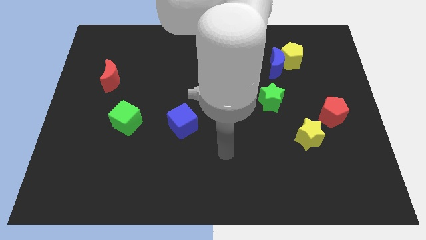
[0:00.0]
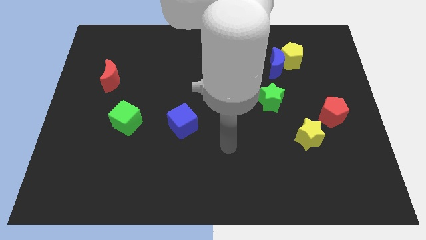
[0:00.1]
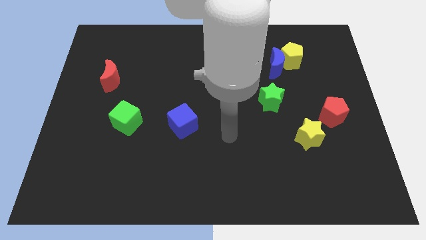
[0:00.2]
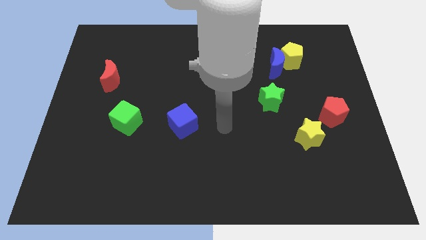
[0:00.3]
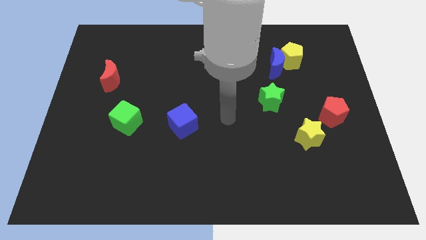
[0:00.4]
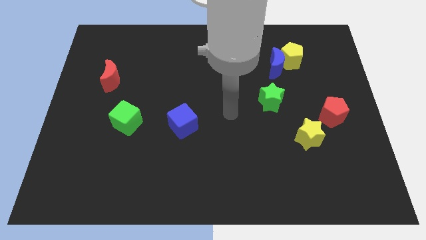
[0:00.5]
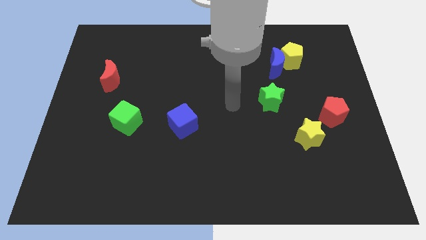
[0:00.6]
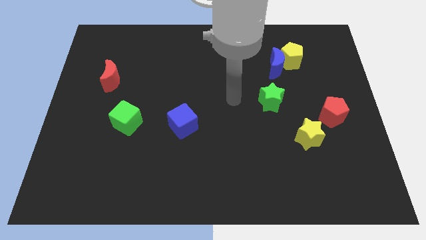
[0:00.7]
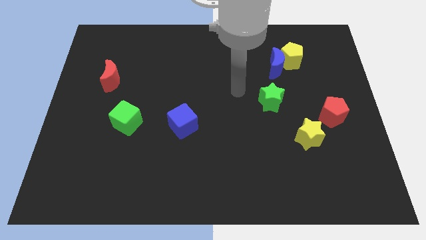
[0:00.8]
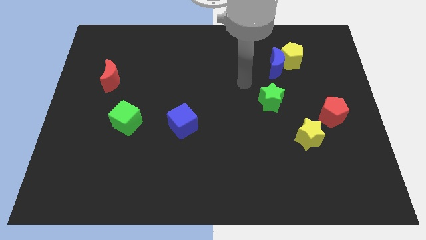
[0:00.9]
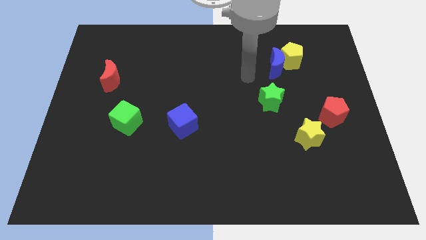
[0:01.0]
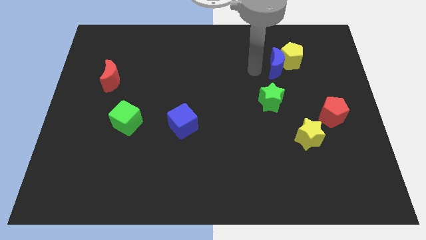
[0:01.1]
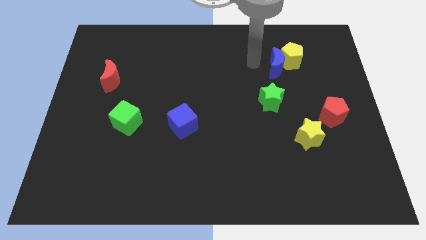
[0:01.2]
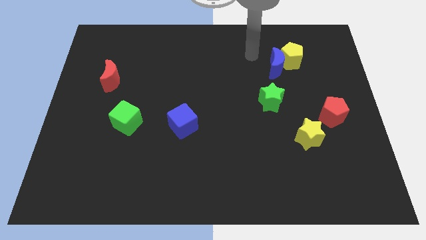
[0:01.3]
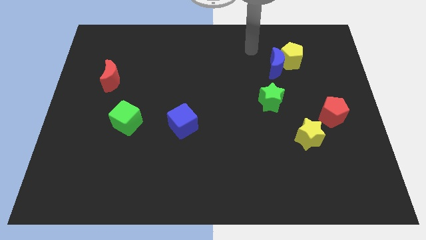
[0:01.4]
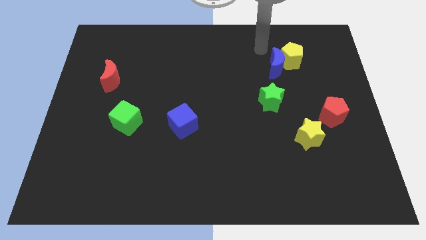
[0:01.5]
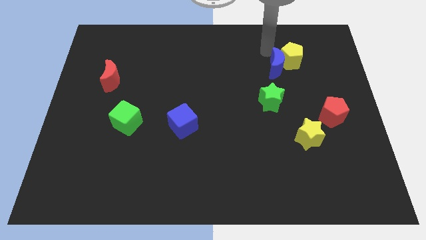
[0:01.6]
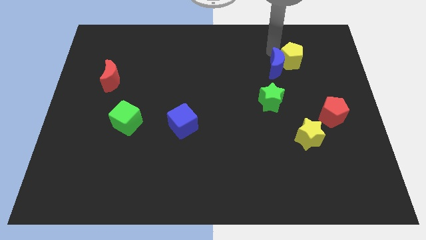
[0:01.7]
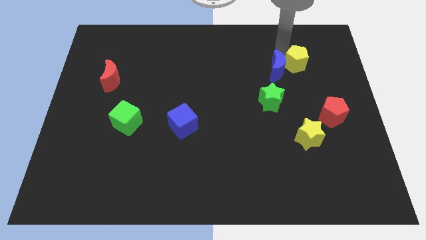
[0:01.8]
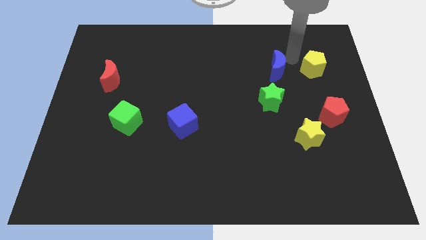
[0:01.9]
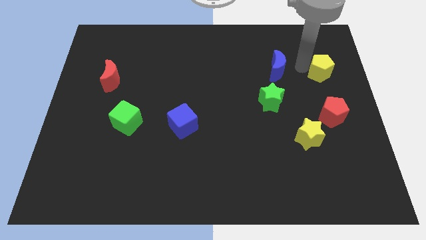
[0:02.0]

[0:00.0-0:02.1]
pull the blue moon apart from the yellow pentagon

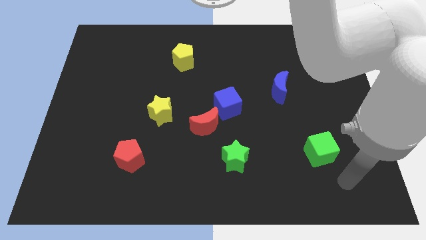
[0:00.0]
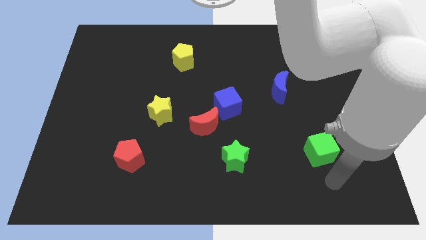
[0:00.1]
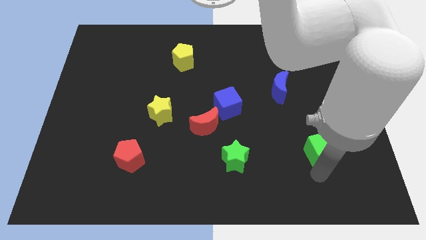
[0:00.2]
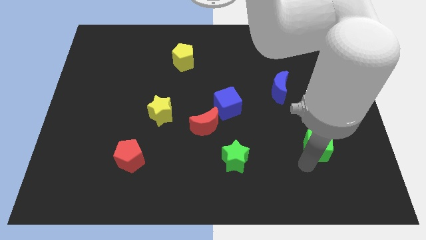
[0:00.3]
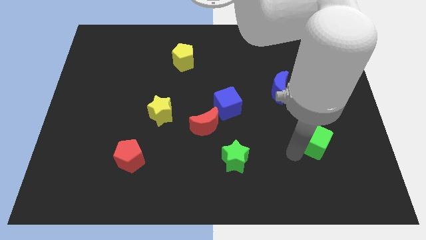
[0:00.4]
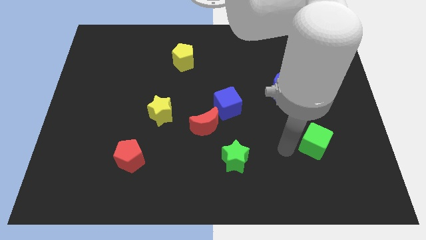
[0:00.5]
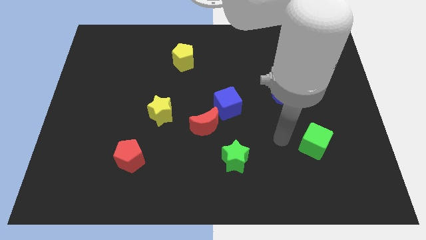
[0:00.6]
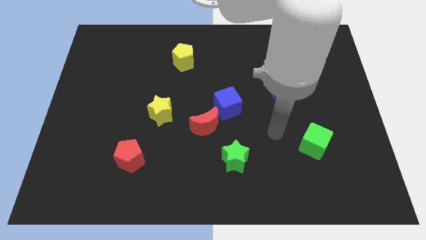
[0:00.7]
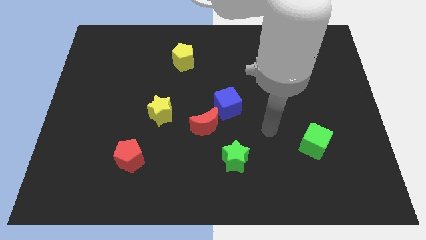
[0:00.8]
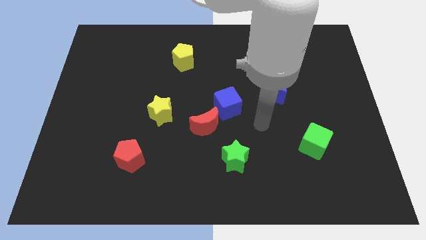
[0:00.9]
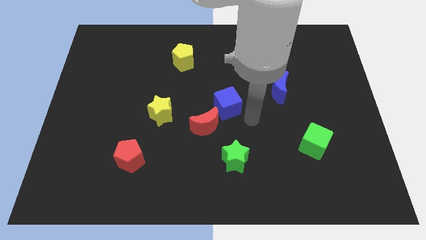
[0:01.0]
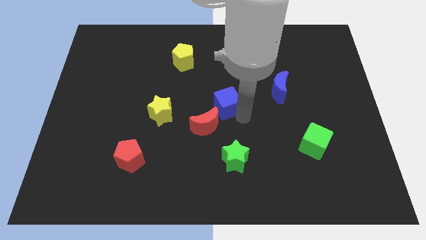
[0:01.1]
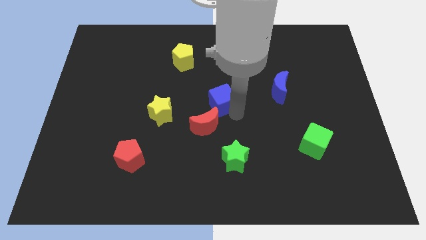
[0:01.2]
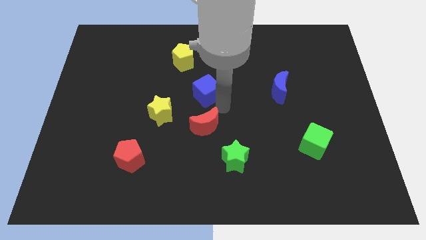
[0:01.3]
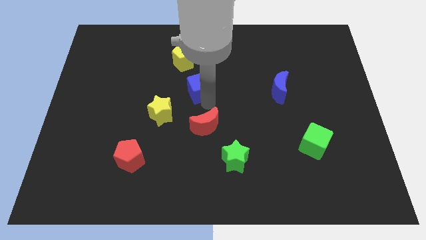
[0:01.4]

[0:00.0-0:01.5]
pull the red moon apart from the blue cube

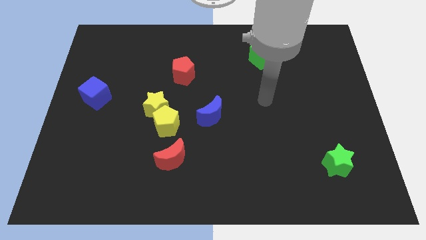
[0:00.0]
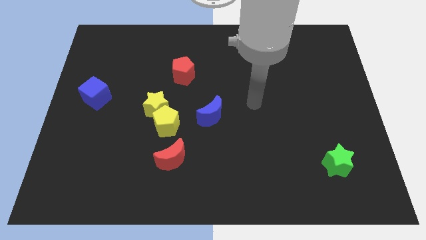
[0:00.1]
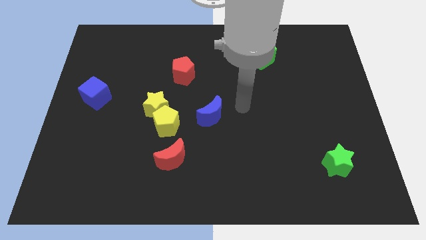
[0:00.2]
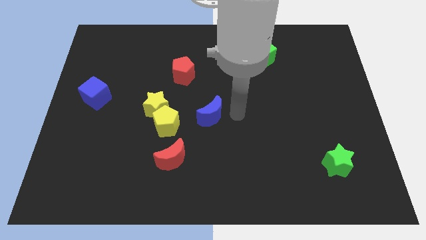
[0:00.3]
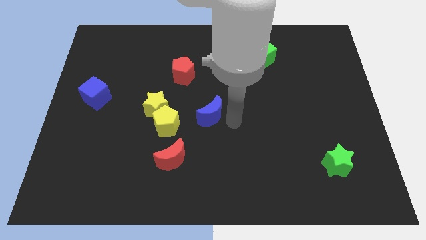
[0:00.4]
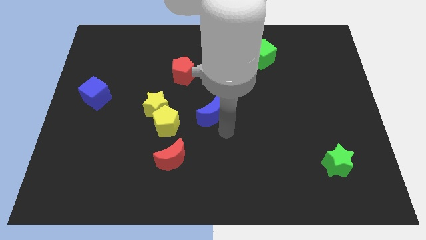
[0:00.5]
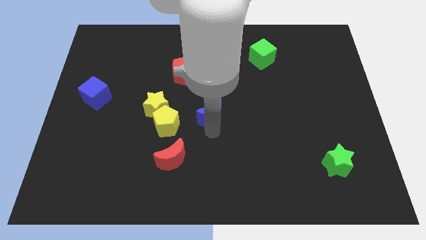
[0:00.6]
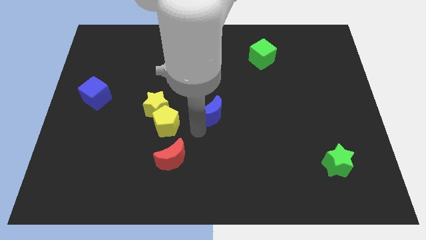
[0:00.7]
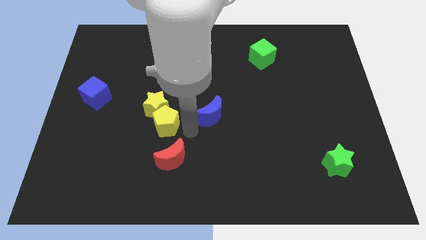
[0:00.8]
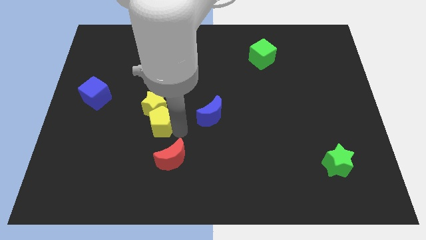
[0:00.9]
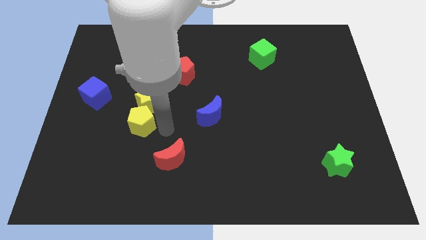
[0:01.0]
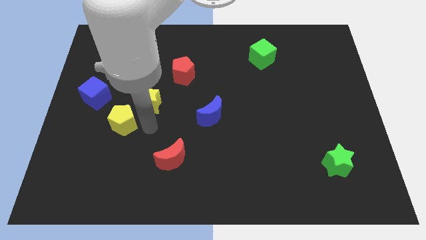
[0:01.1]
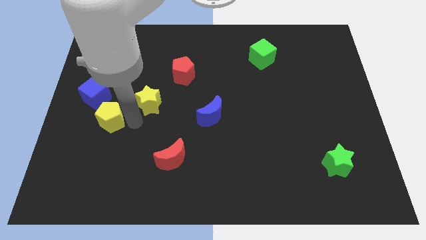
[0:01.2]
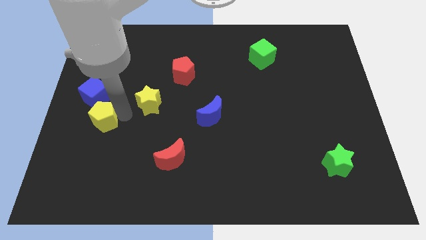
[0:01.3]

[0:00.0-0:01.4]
separate the yellow star from the yellow pentagon

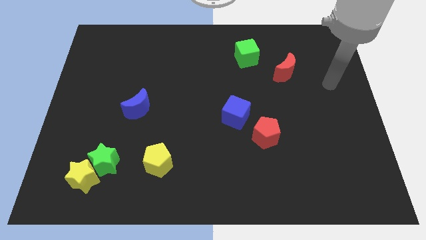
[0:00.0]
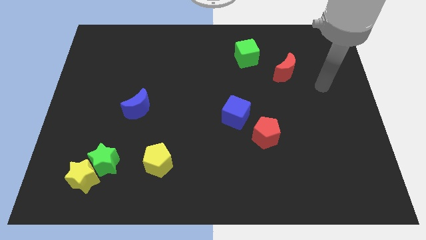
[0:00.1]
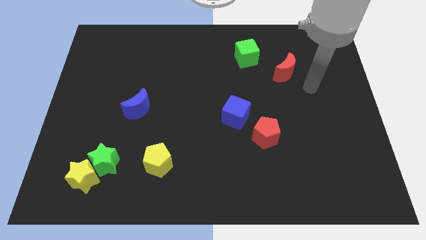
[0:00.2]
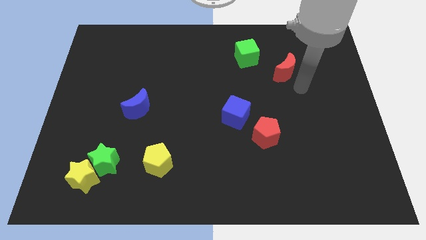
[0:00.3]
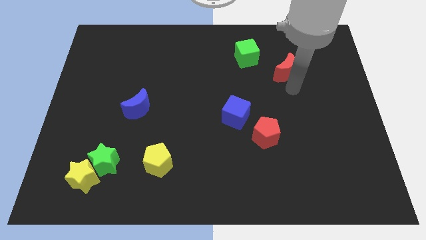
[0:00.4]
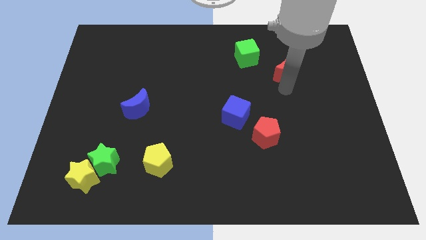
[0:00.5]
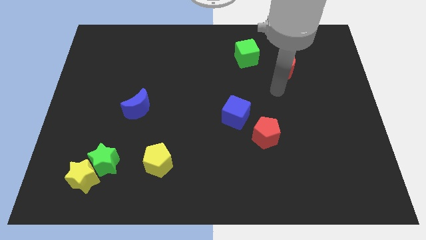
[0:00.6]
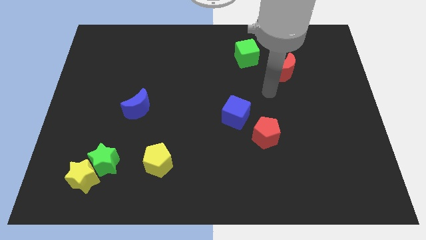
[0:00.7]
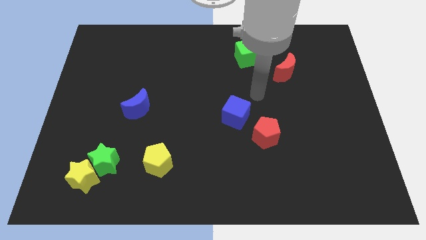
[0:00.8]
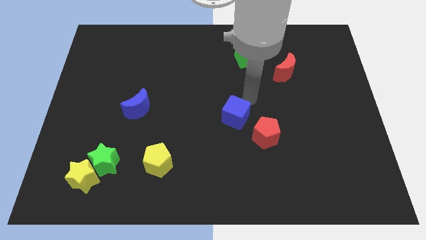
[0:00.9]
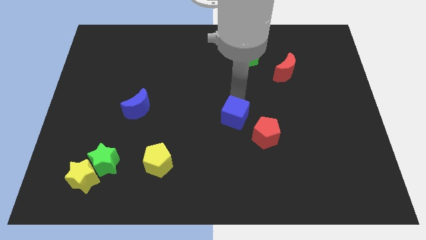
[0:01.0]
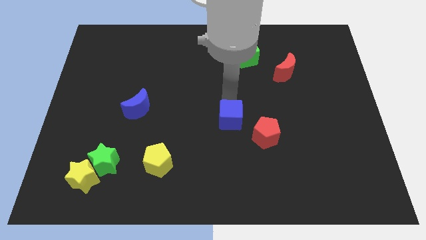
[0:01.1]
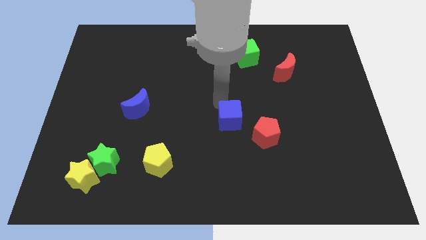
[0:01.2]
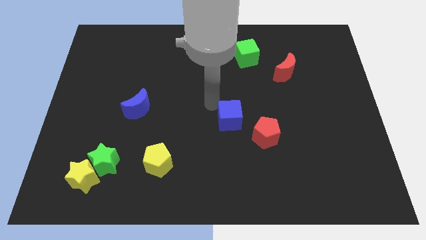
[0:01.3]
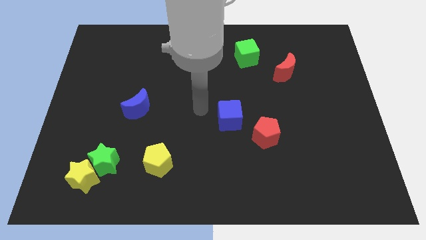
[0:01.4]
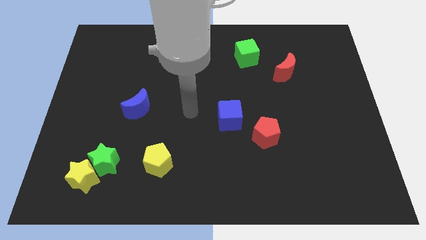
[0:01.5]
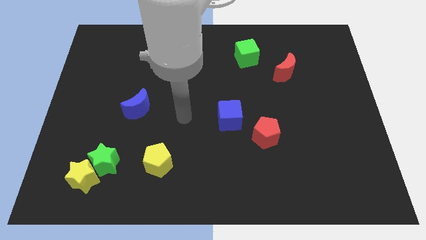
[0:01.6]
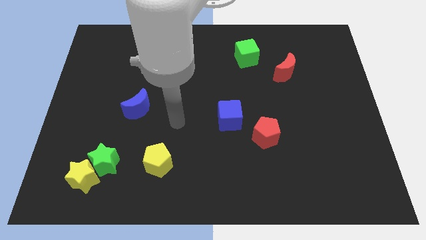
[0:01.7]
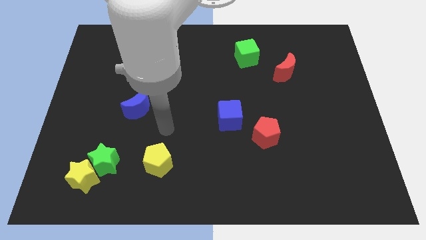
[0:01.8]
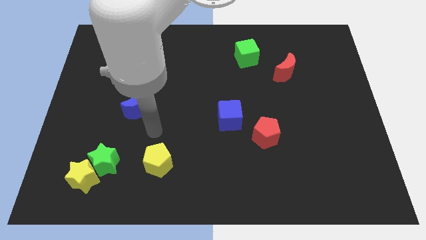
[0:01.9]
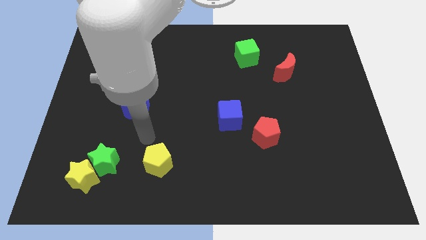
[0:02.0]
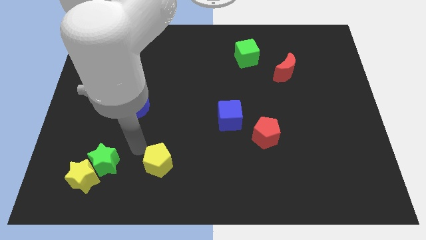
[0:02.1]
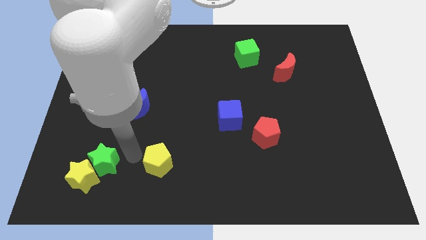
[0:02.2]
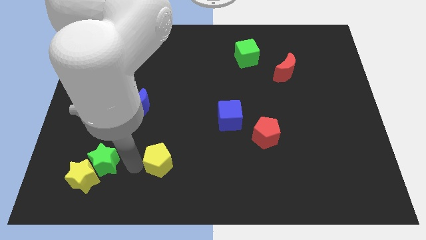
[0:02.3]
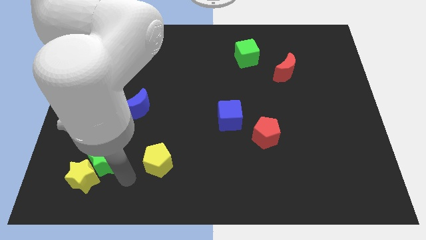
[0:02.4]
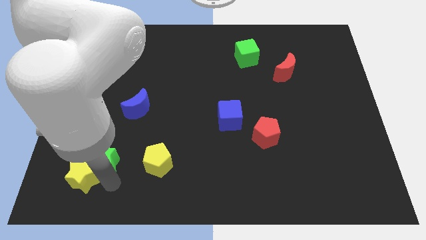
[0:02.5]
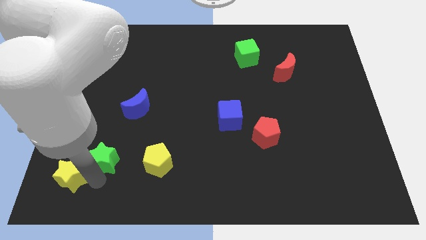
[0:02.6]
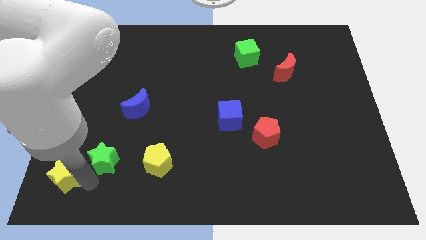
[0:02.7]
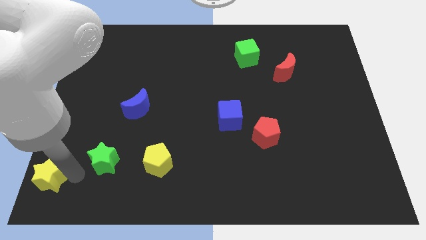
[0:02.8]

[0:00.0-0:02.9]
separate the green star from the yellow star

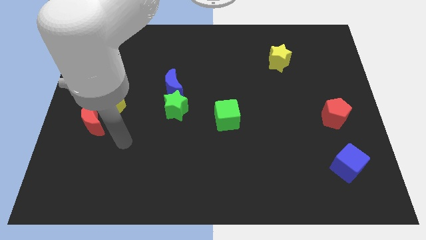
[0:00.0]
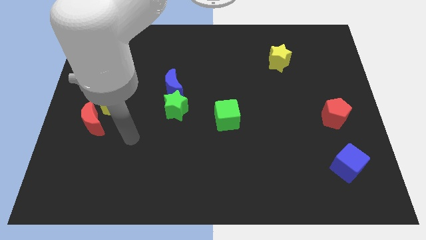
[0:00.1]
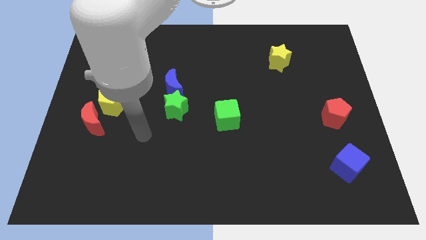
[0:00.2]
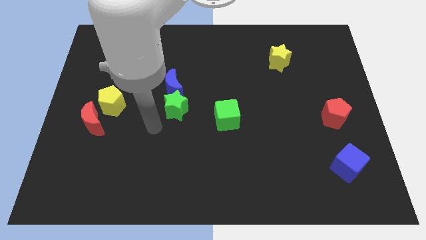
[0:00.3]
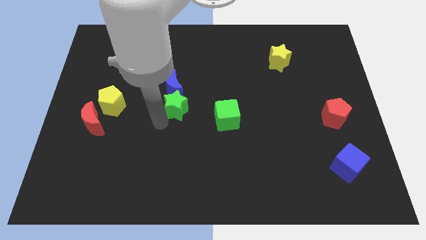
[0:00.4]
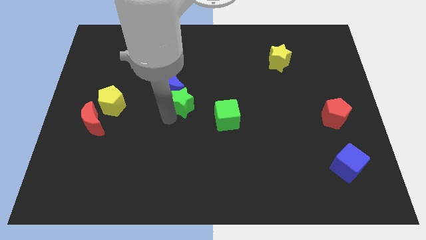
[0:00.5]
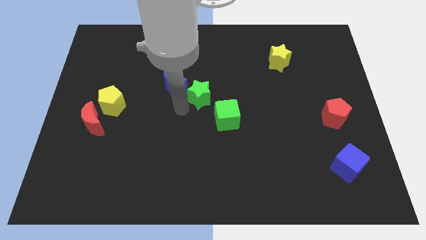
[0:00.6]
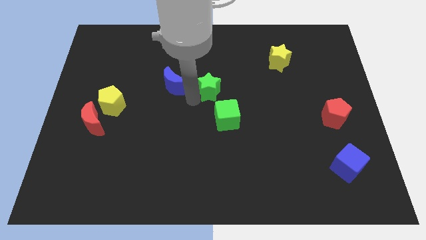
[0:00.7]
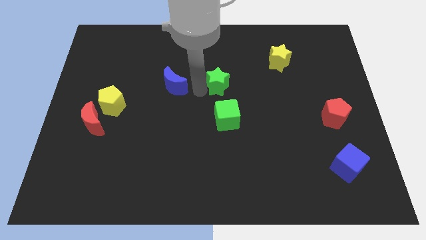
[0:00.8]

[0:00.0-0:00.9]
move the blue moon away from the green star

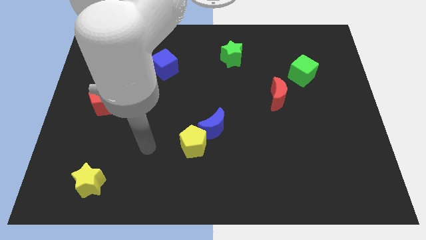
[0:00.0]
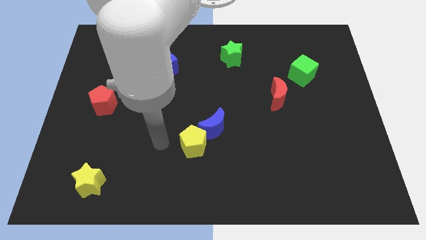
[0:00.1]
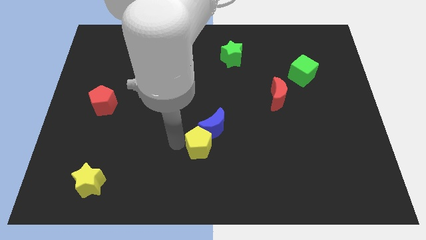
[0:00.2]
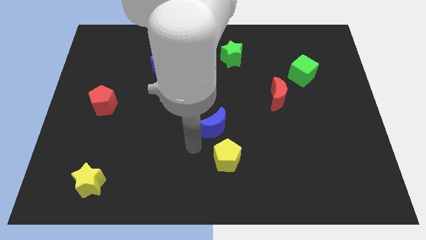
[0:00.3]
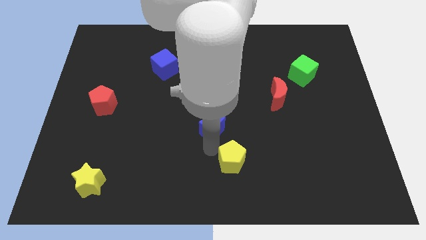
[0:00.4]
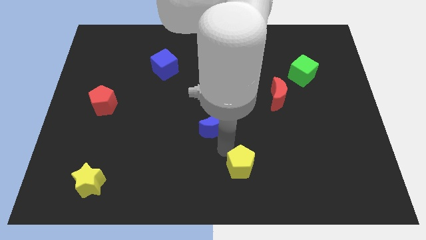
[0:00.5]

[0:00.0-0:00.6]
separate the blue moon from the yellow pentagon
